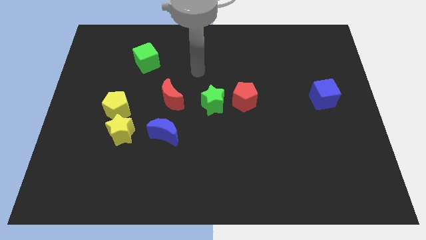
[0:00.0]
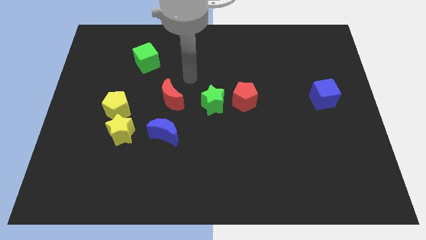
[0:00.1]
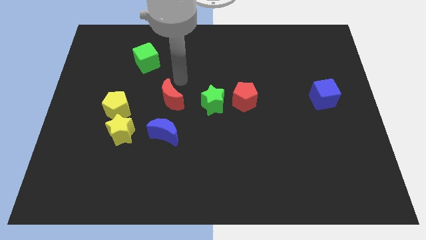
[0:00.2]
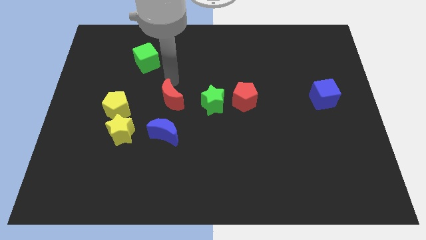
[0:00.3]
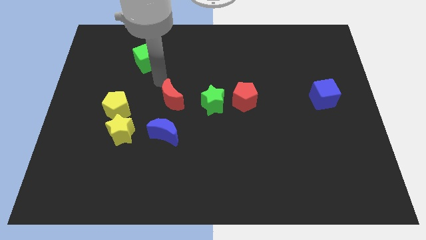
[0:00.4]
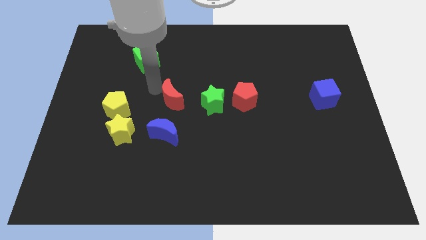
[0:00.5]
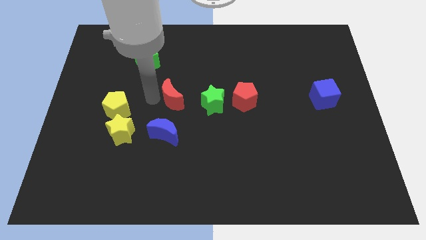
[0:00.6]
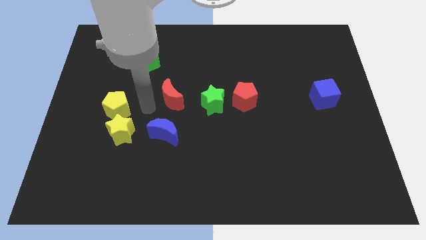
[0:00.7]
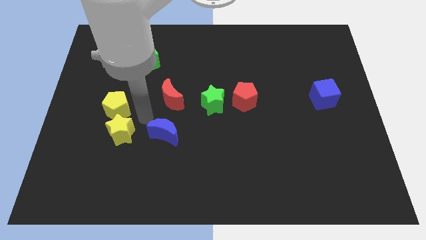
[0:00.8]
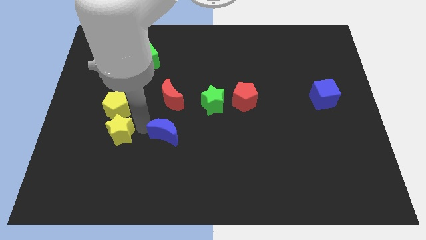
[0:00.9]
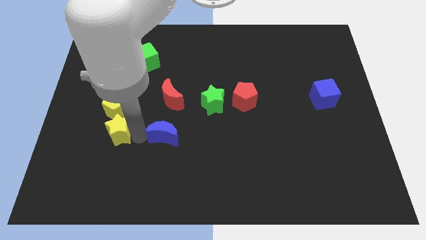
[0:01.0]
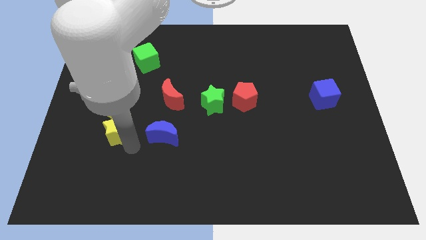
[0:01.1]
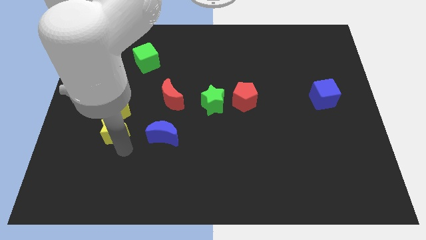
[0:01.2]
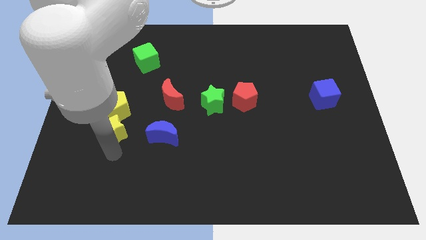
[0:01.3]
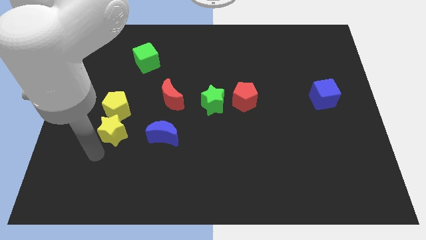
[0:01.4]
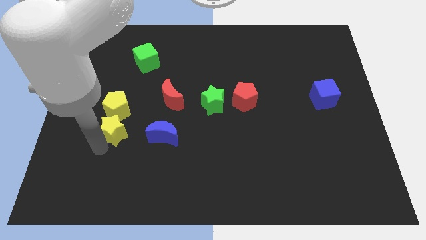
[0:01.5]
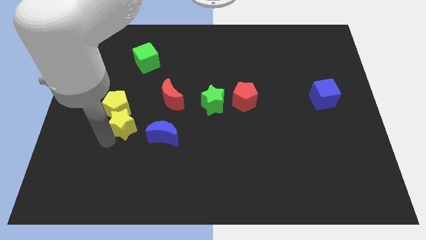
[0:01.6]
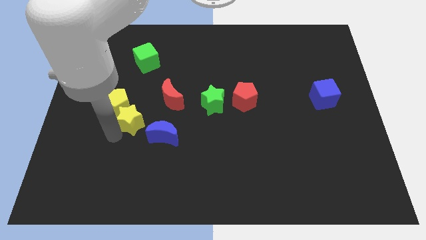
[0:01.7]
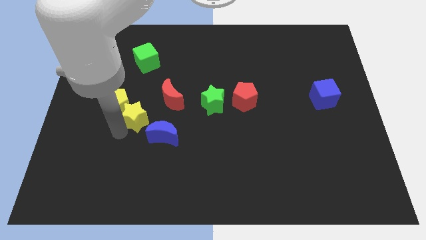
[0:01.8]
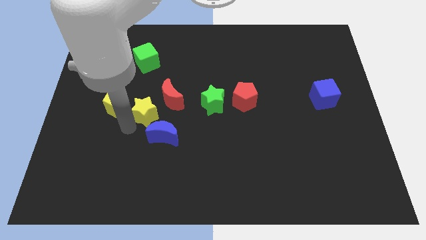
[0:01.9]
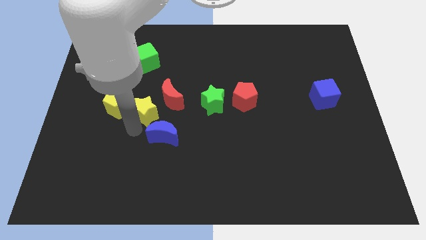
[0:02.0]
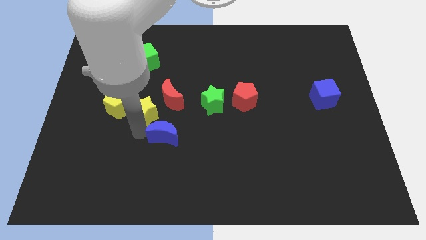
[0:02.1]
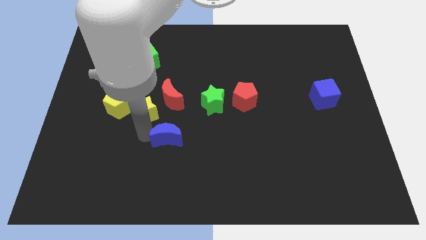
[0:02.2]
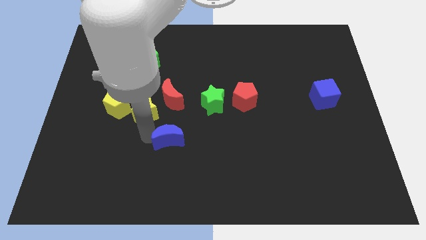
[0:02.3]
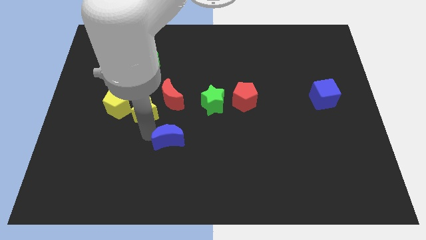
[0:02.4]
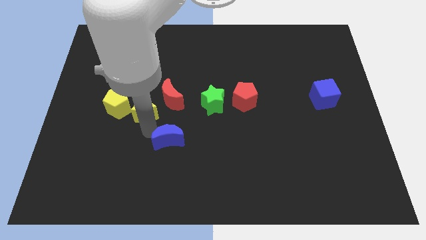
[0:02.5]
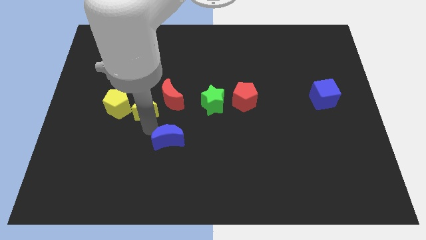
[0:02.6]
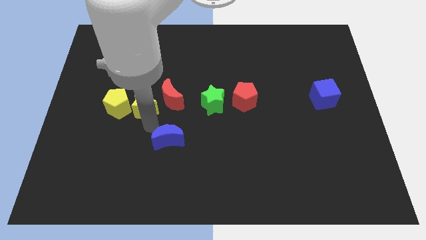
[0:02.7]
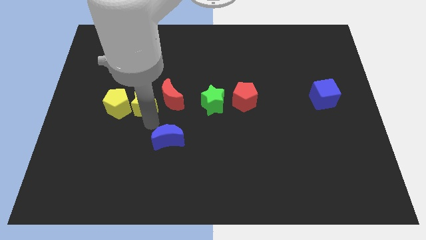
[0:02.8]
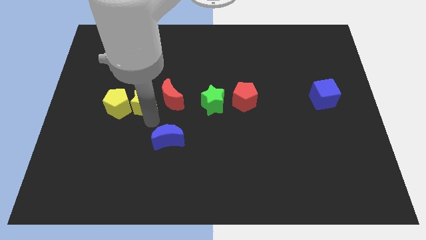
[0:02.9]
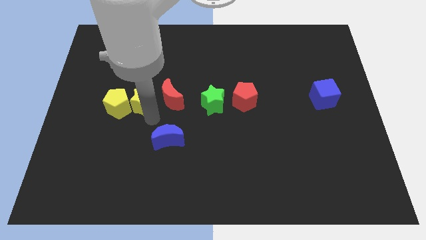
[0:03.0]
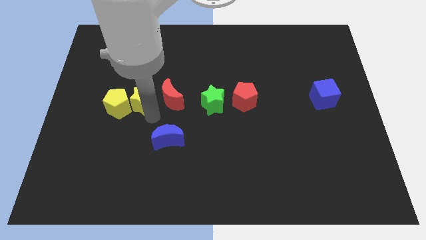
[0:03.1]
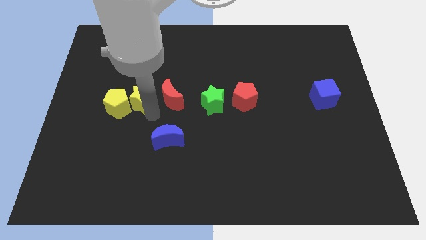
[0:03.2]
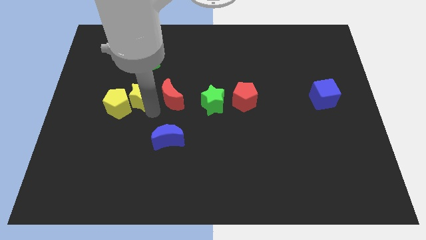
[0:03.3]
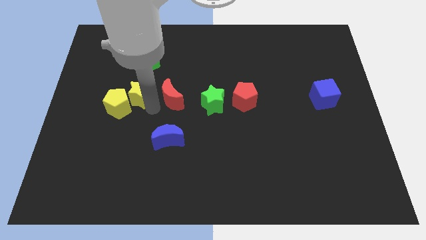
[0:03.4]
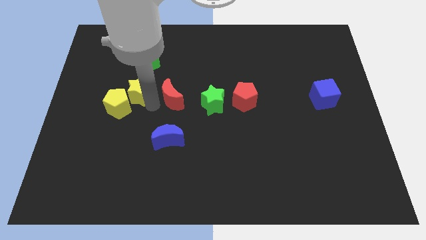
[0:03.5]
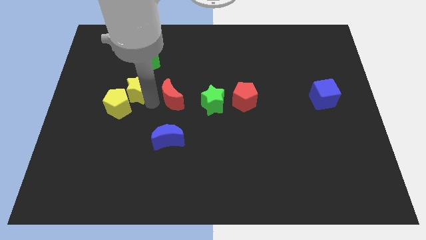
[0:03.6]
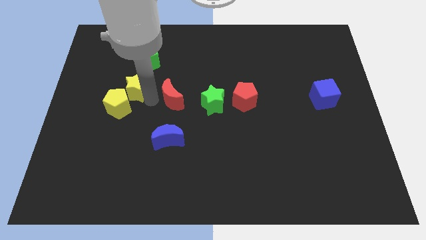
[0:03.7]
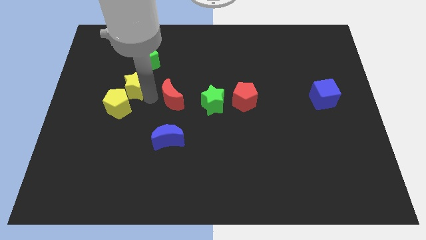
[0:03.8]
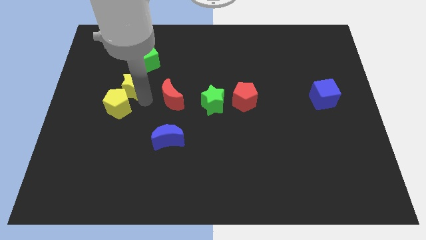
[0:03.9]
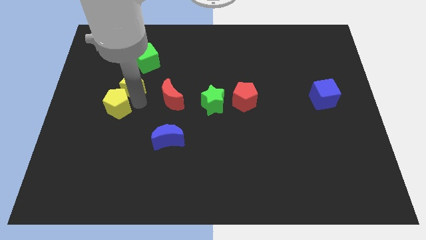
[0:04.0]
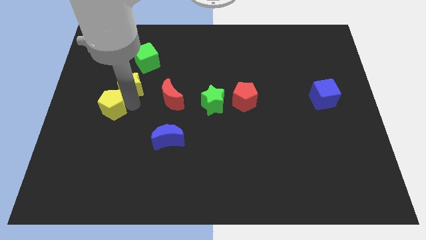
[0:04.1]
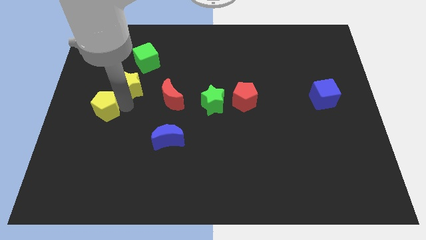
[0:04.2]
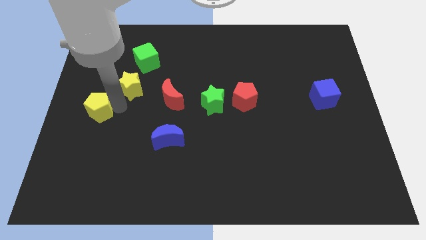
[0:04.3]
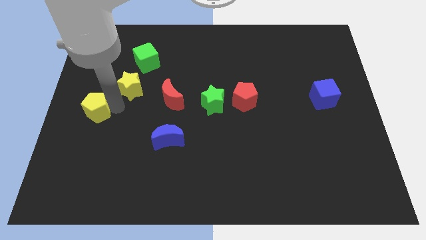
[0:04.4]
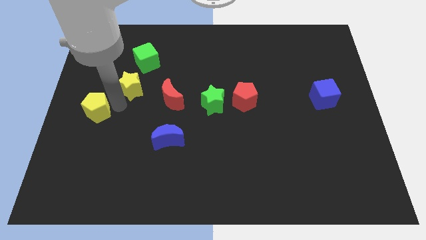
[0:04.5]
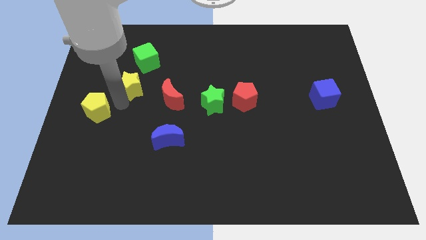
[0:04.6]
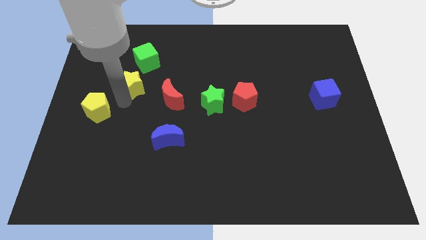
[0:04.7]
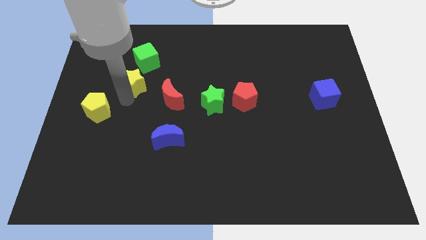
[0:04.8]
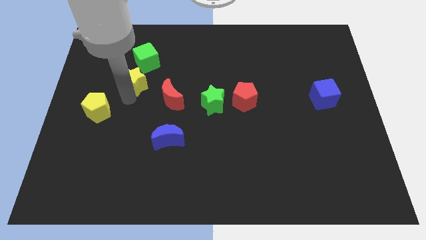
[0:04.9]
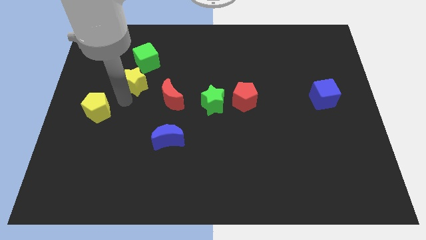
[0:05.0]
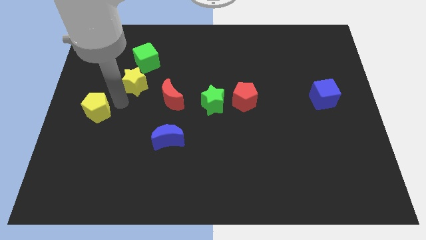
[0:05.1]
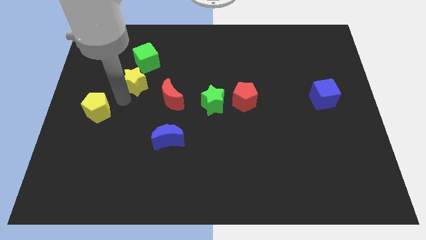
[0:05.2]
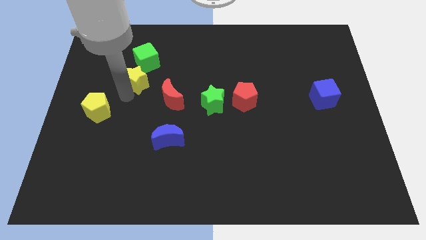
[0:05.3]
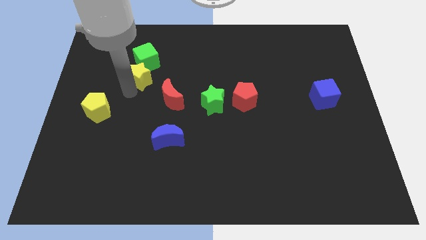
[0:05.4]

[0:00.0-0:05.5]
push the yellow star next to the green cube
